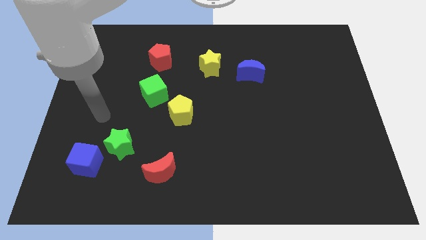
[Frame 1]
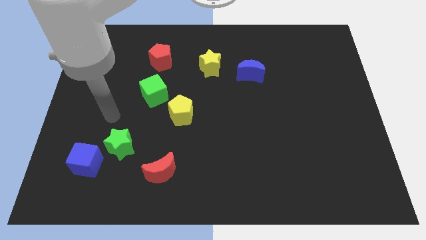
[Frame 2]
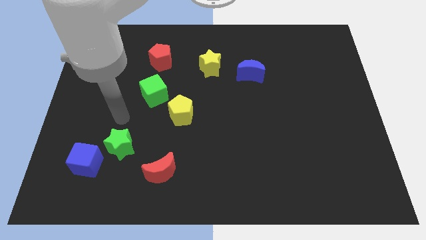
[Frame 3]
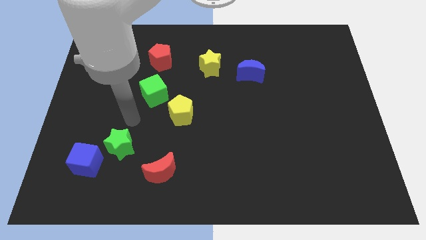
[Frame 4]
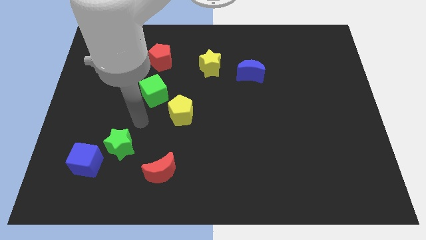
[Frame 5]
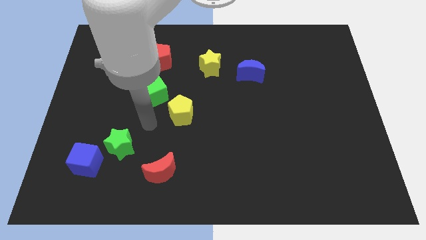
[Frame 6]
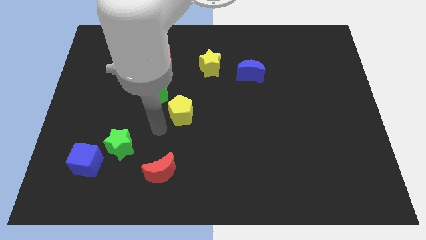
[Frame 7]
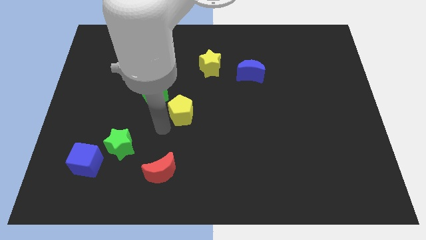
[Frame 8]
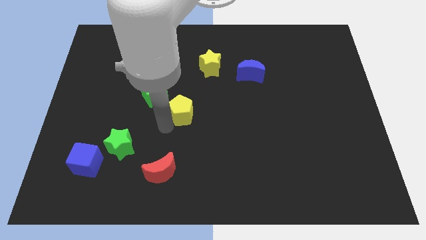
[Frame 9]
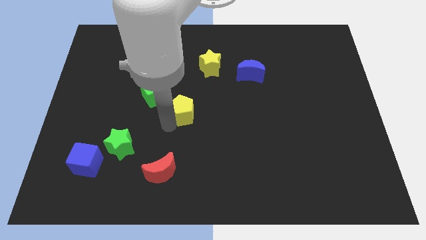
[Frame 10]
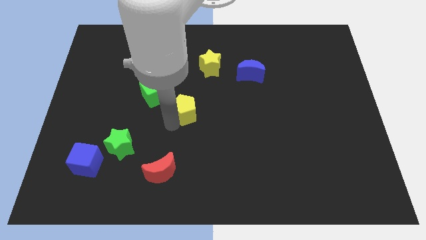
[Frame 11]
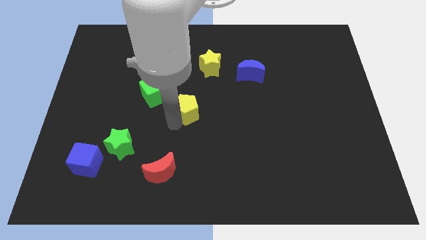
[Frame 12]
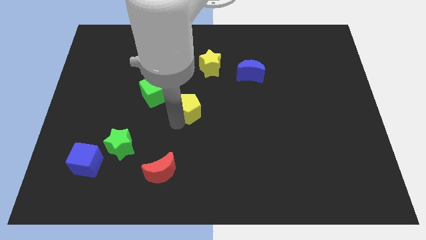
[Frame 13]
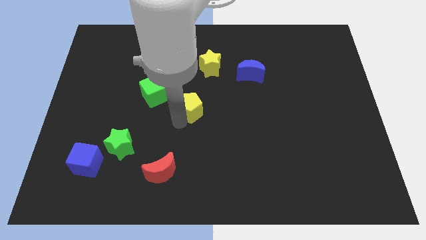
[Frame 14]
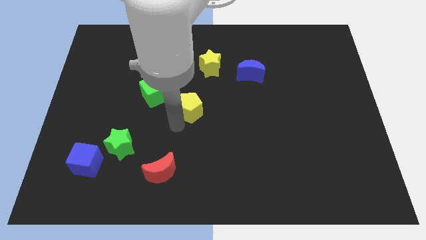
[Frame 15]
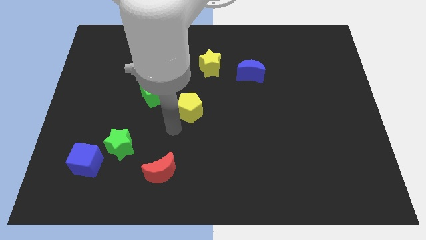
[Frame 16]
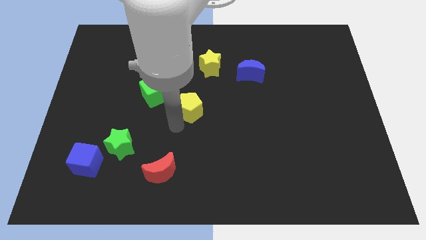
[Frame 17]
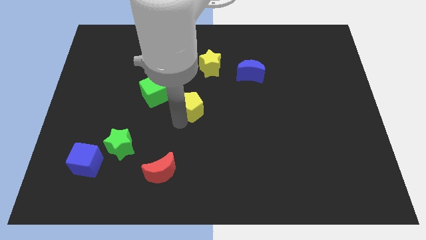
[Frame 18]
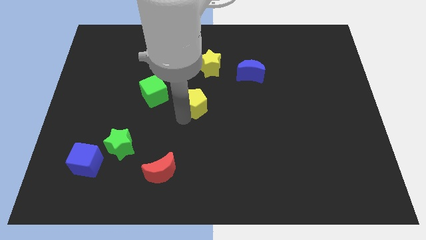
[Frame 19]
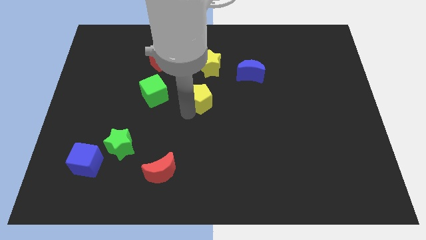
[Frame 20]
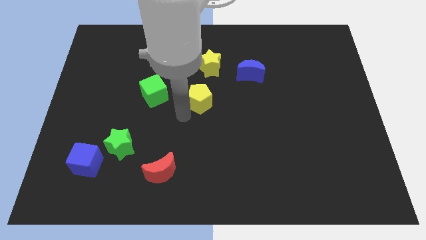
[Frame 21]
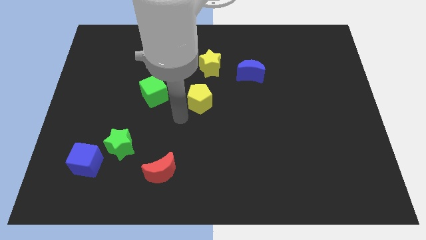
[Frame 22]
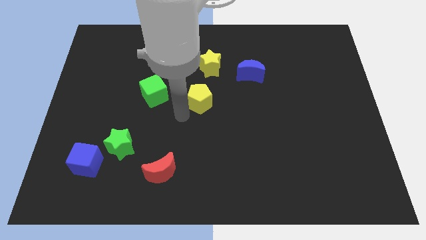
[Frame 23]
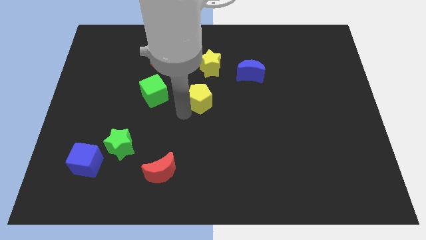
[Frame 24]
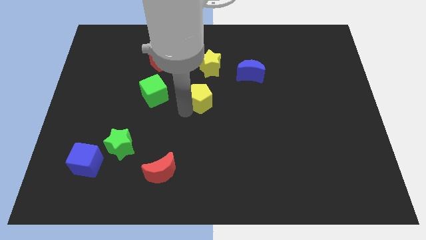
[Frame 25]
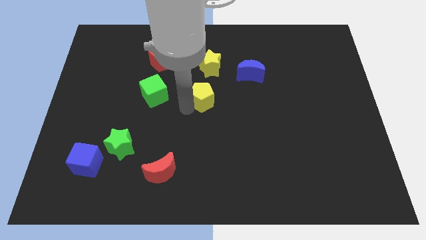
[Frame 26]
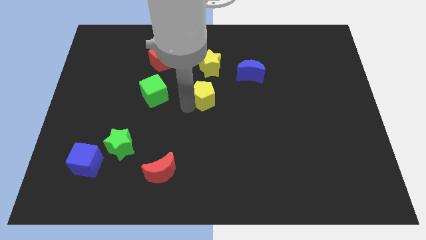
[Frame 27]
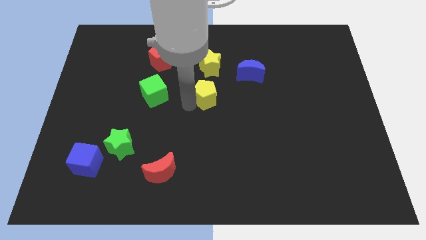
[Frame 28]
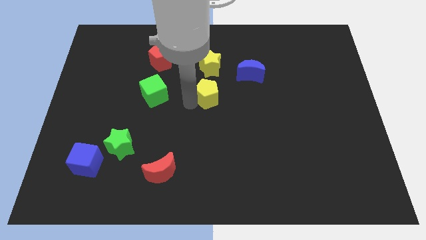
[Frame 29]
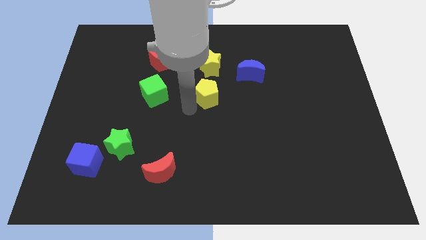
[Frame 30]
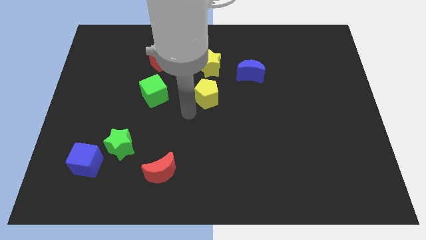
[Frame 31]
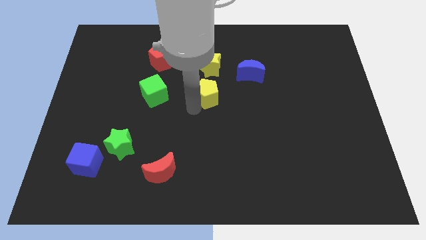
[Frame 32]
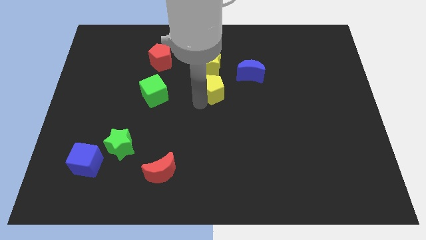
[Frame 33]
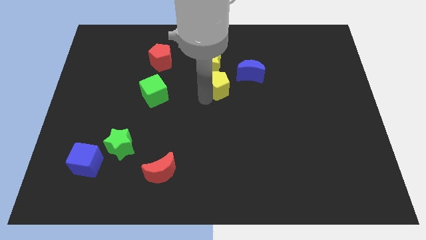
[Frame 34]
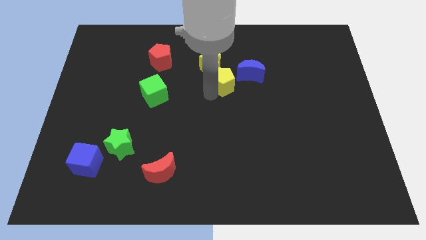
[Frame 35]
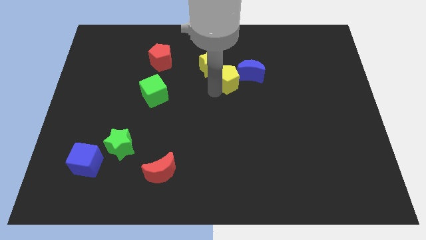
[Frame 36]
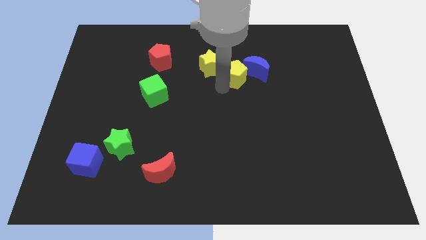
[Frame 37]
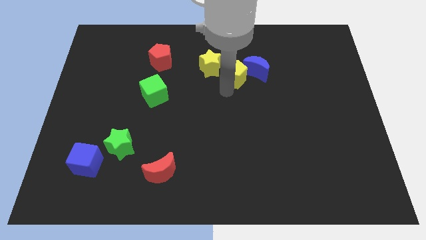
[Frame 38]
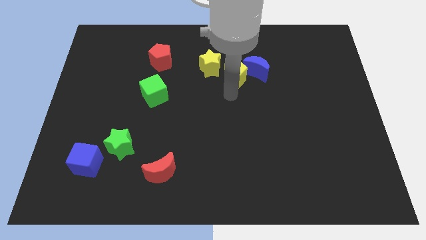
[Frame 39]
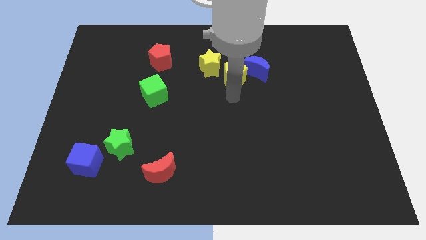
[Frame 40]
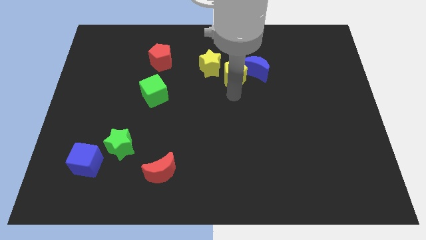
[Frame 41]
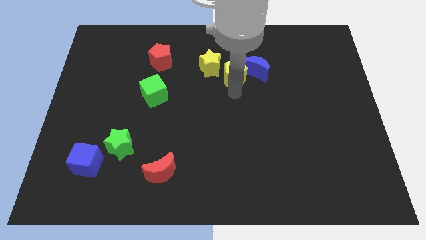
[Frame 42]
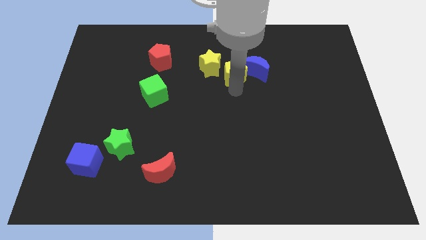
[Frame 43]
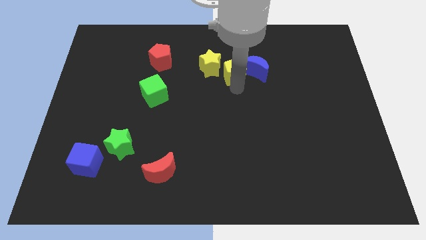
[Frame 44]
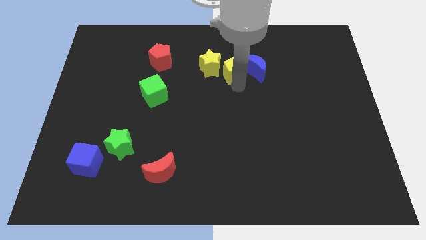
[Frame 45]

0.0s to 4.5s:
put the yellow pentagon to the top left of the blue moon

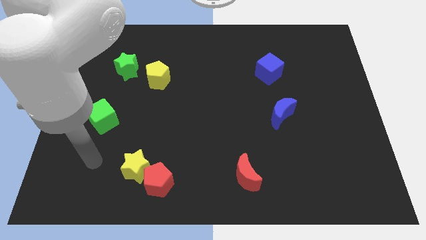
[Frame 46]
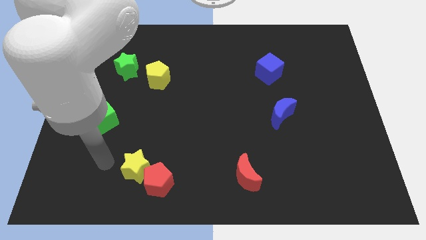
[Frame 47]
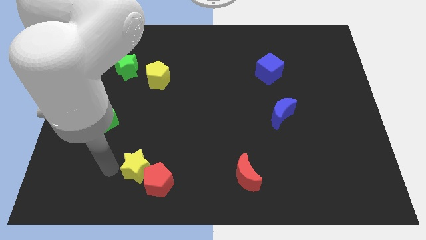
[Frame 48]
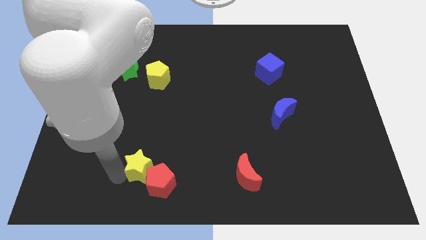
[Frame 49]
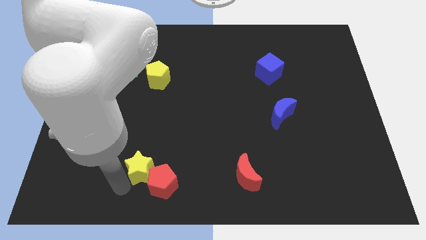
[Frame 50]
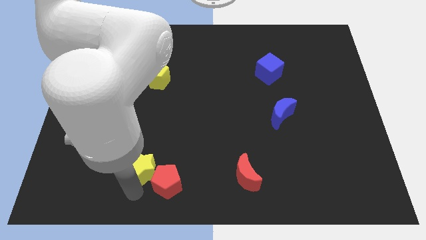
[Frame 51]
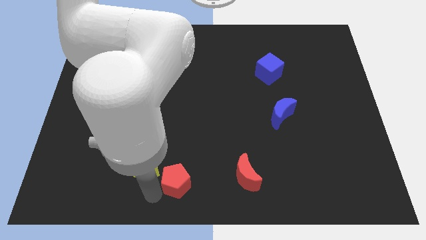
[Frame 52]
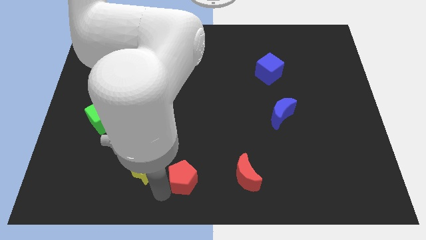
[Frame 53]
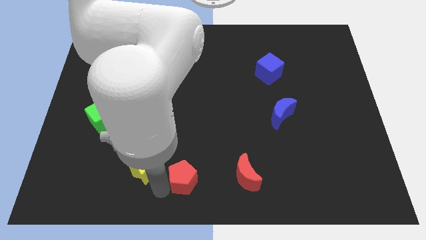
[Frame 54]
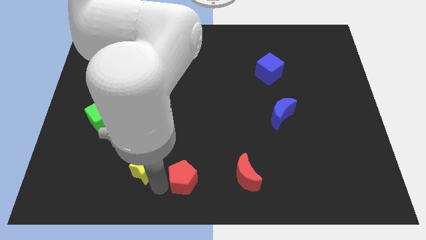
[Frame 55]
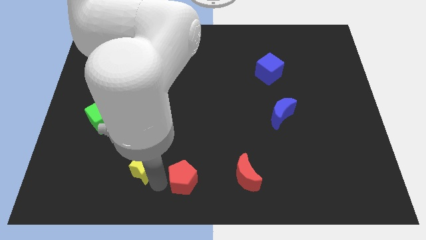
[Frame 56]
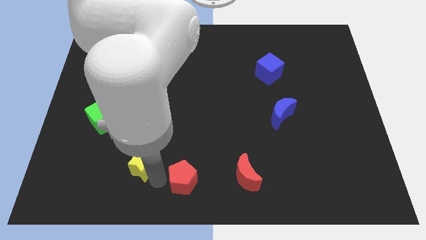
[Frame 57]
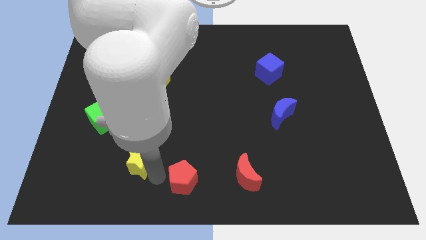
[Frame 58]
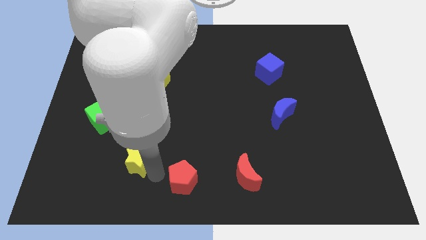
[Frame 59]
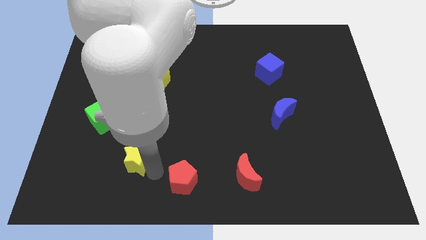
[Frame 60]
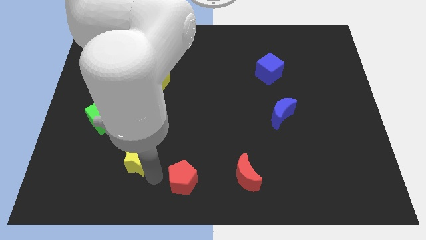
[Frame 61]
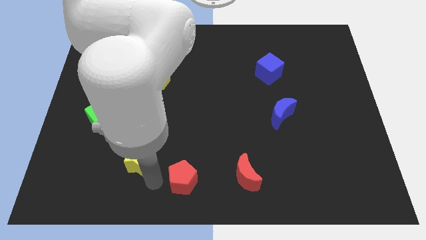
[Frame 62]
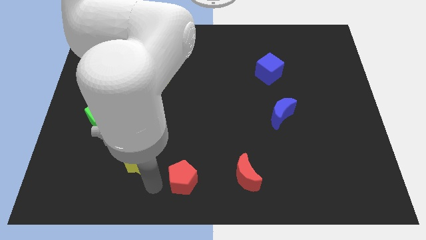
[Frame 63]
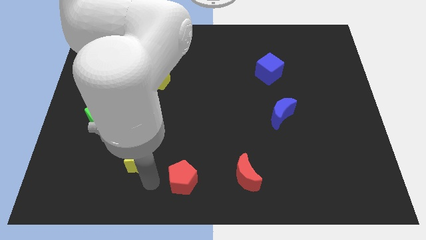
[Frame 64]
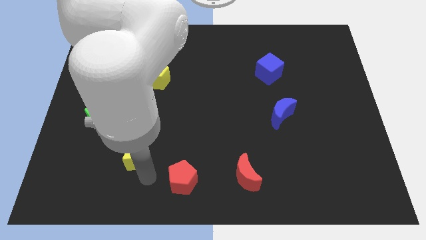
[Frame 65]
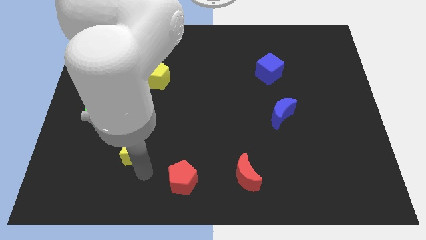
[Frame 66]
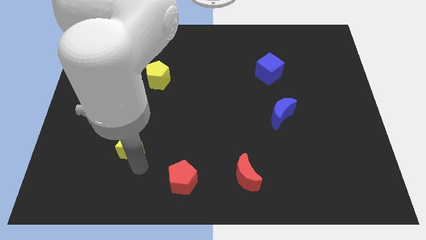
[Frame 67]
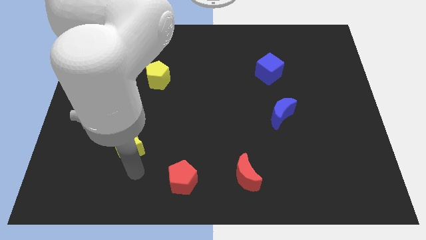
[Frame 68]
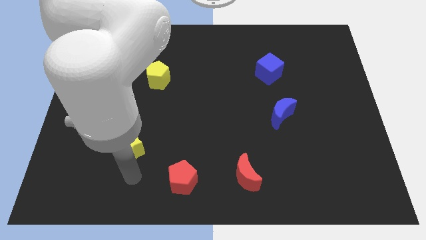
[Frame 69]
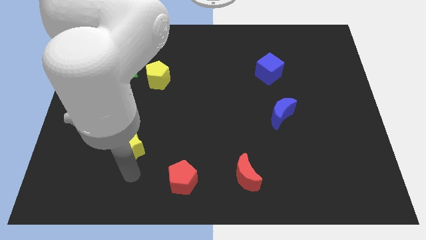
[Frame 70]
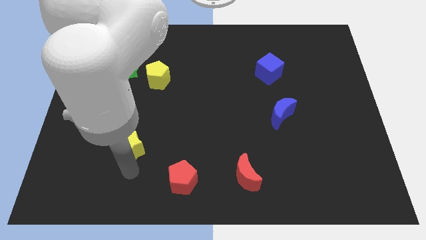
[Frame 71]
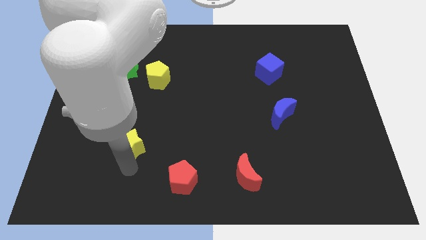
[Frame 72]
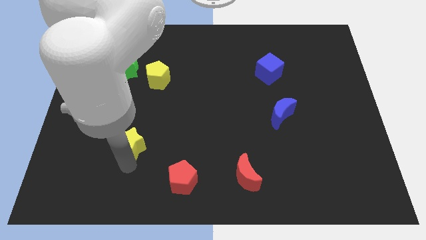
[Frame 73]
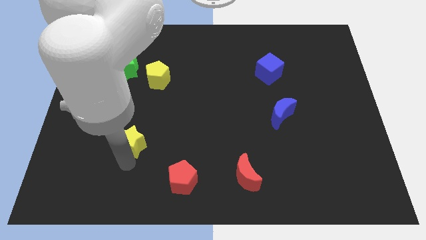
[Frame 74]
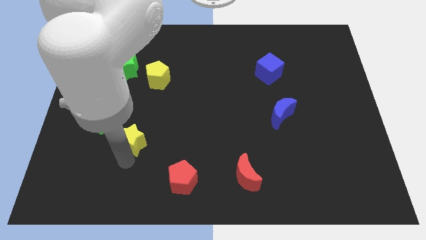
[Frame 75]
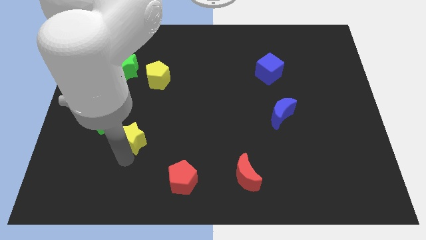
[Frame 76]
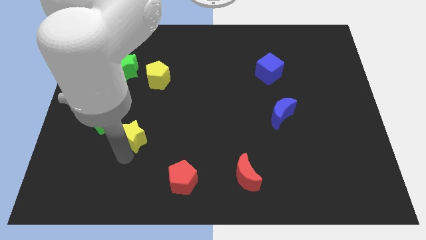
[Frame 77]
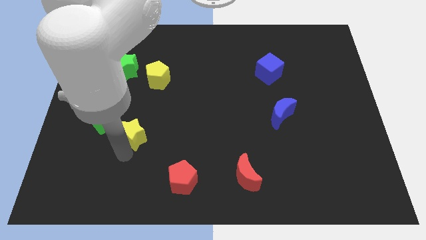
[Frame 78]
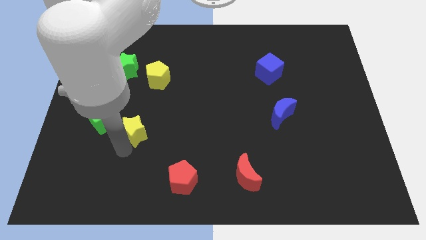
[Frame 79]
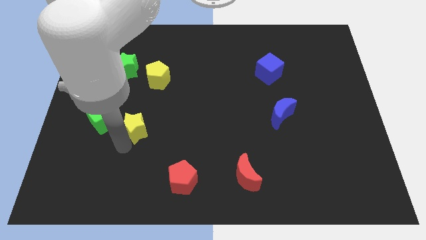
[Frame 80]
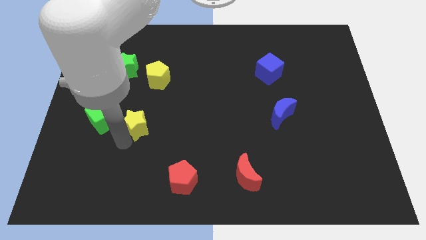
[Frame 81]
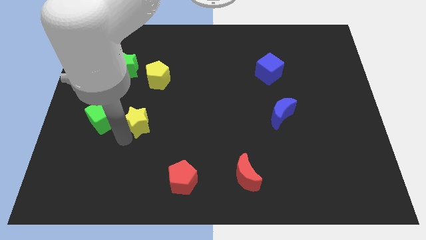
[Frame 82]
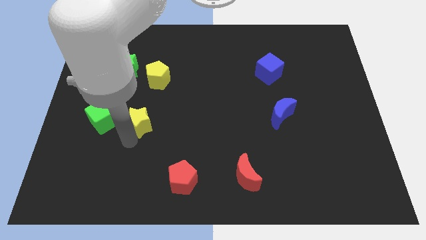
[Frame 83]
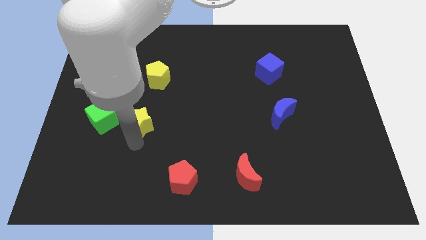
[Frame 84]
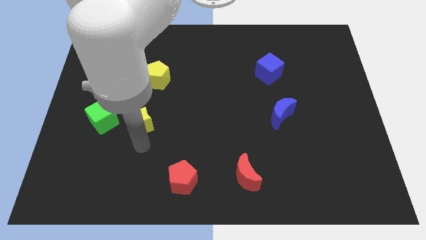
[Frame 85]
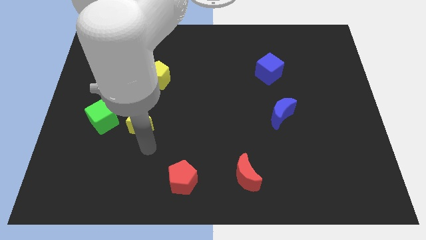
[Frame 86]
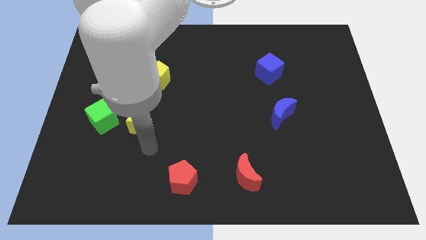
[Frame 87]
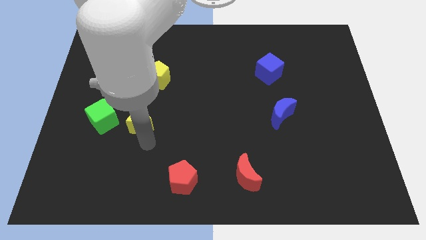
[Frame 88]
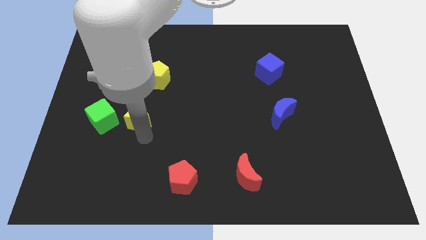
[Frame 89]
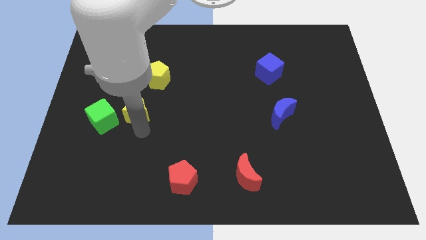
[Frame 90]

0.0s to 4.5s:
put the yellow star to the top right side of the green cube
